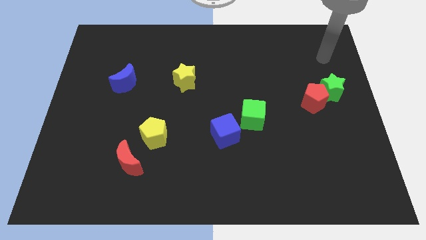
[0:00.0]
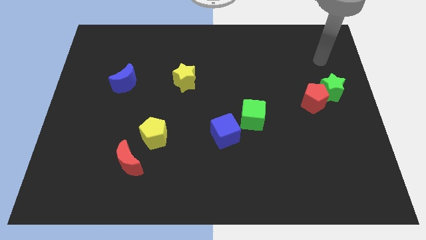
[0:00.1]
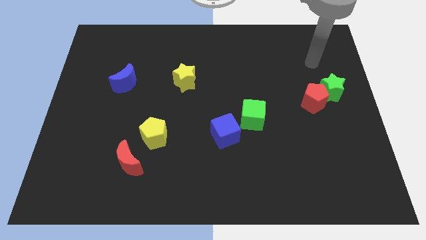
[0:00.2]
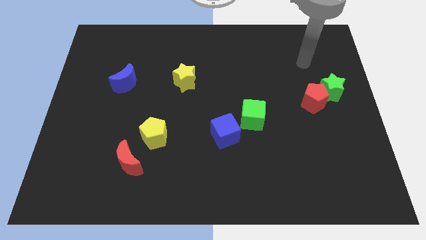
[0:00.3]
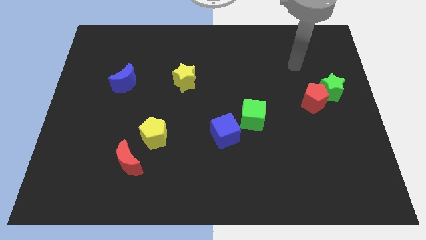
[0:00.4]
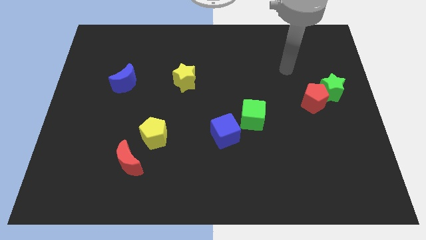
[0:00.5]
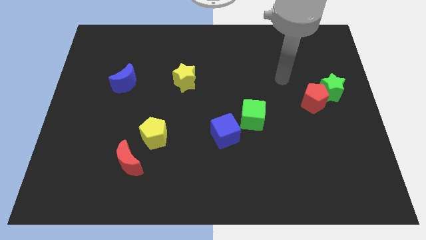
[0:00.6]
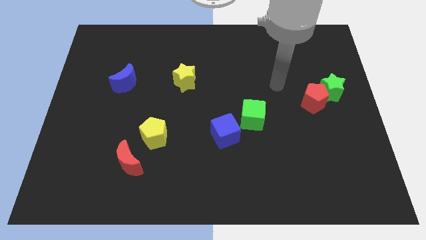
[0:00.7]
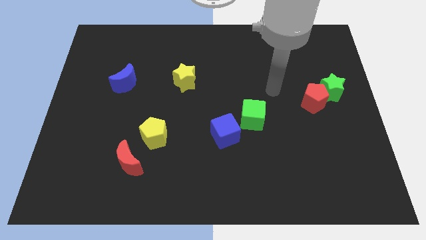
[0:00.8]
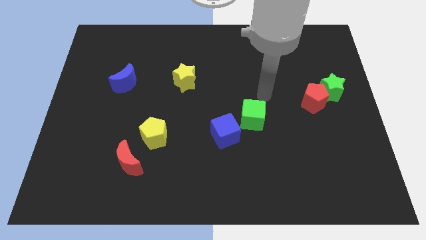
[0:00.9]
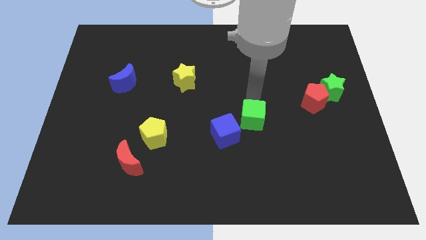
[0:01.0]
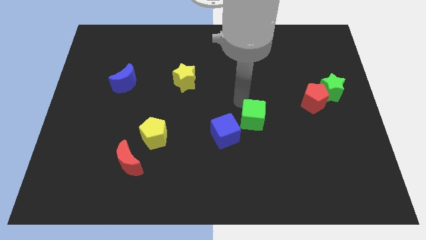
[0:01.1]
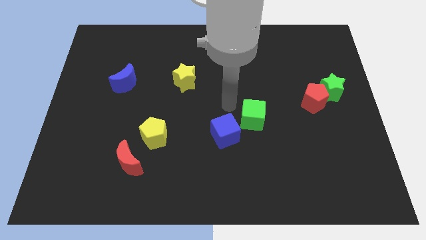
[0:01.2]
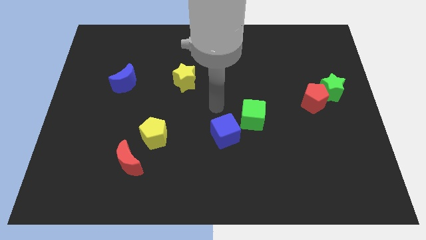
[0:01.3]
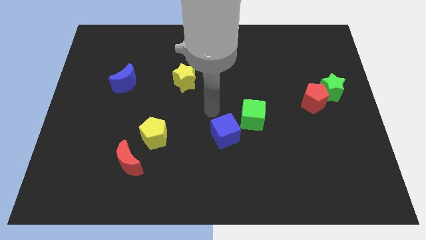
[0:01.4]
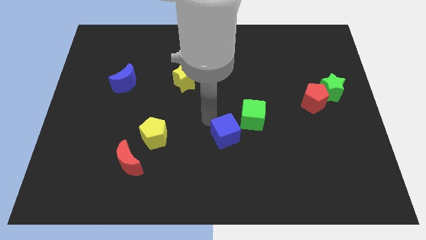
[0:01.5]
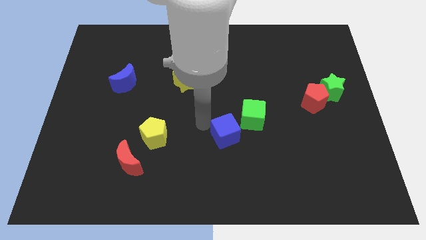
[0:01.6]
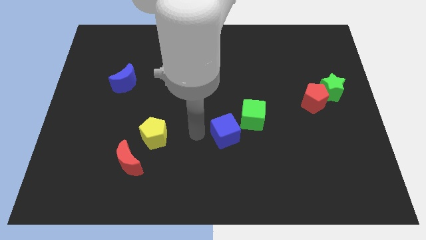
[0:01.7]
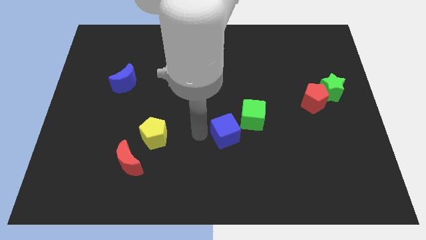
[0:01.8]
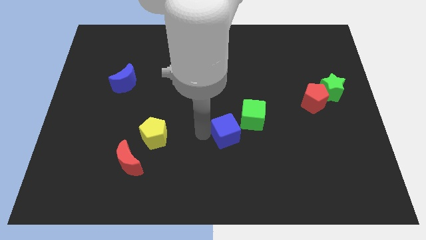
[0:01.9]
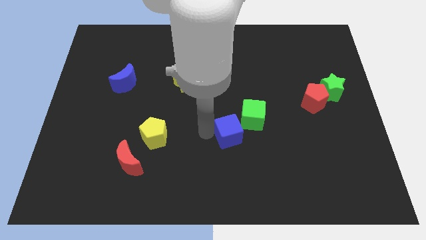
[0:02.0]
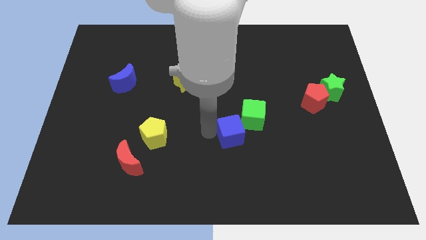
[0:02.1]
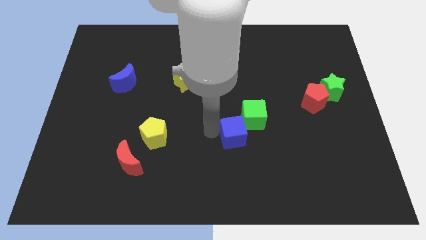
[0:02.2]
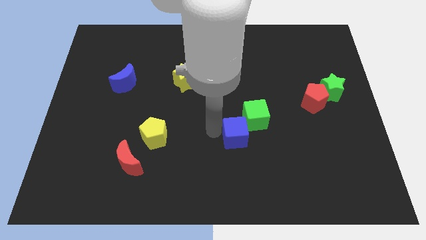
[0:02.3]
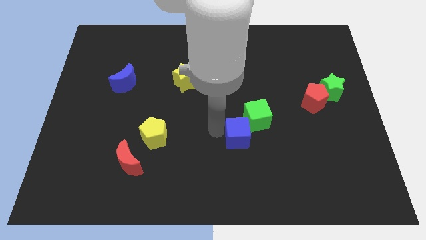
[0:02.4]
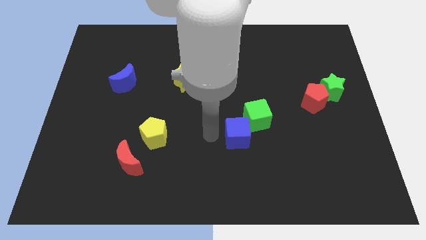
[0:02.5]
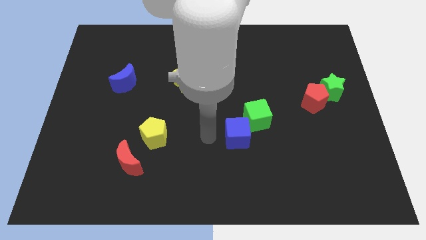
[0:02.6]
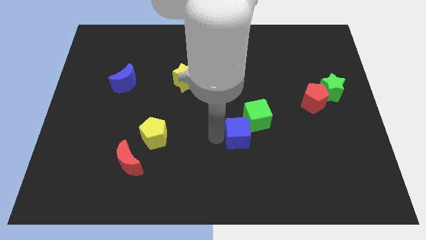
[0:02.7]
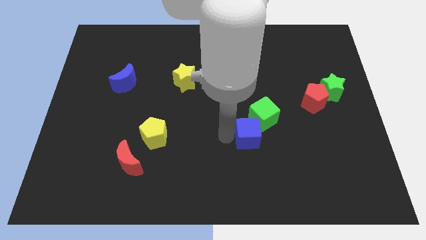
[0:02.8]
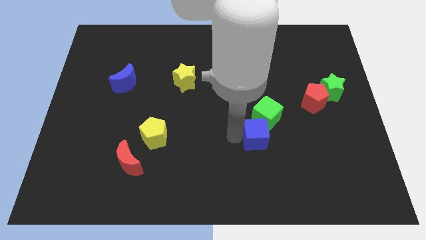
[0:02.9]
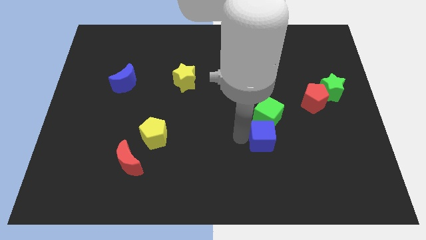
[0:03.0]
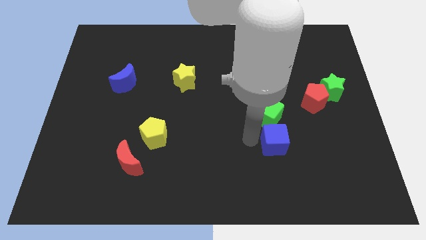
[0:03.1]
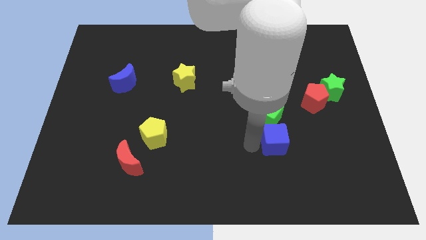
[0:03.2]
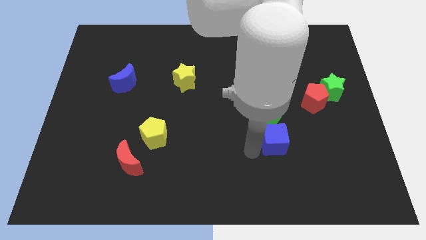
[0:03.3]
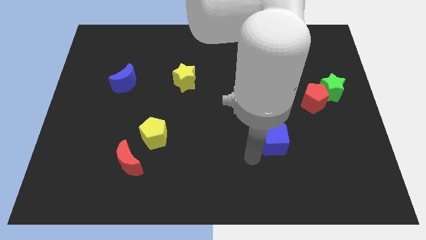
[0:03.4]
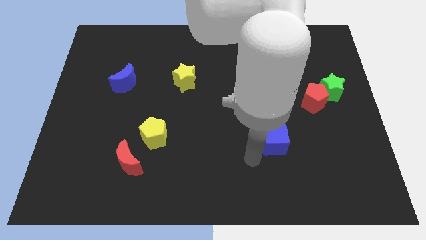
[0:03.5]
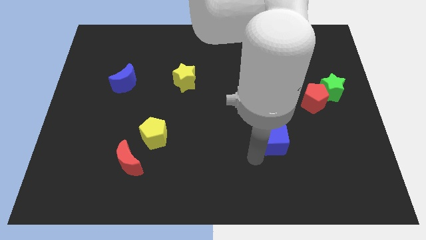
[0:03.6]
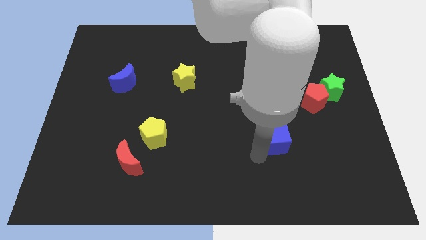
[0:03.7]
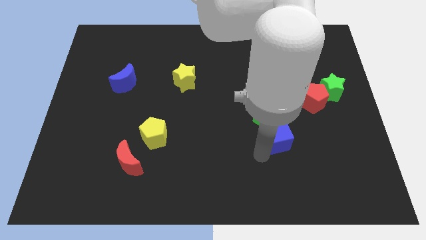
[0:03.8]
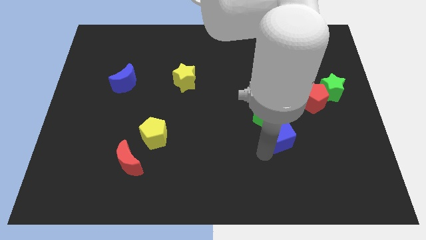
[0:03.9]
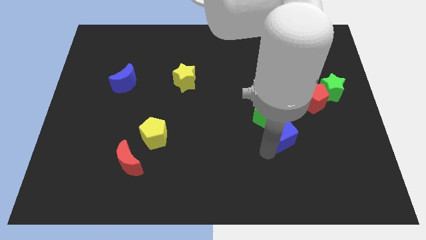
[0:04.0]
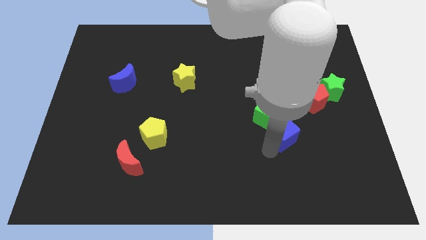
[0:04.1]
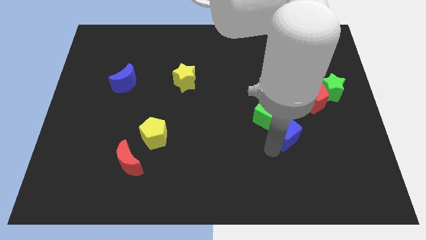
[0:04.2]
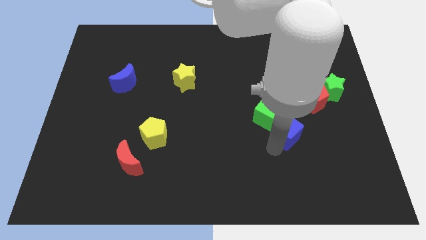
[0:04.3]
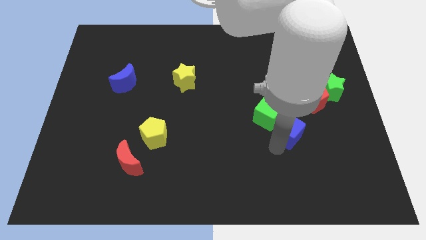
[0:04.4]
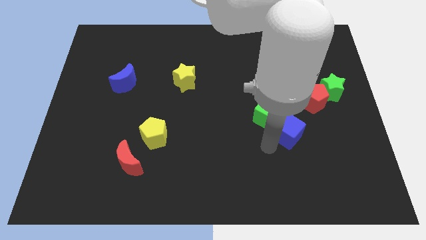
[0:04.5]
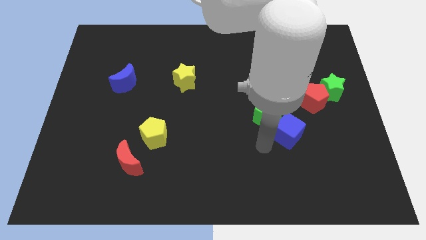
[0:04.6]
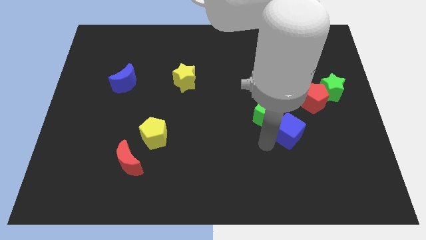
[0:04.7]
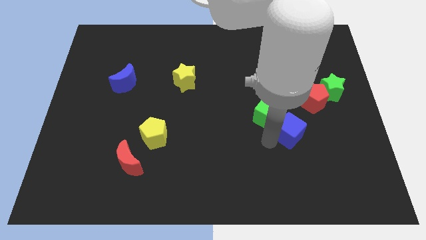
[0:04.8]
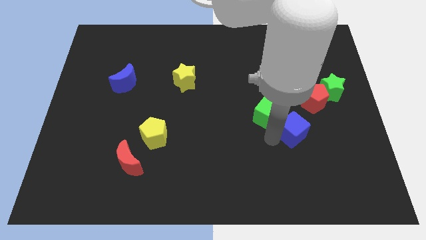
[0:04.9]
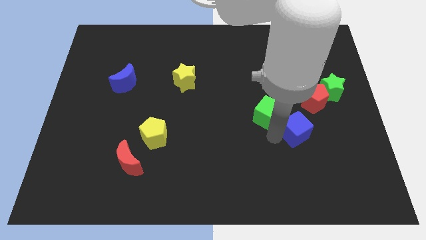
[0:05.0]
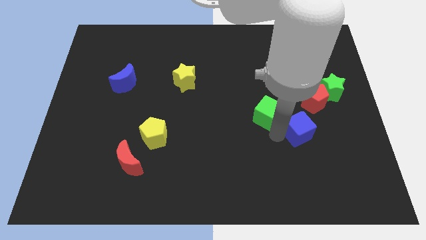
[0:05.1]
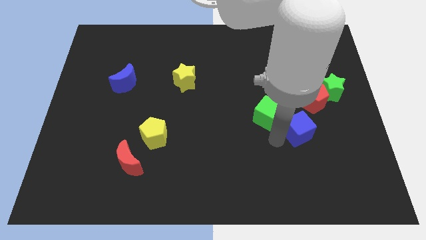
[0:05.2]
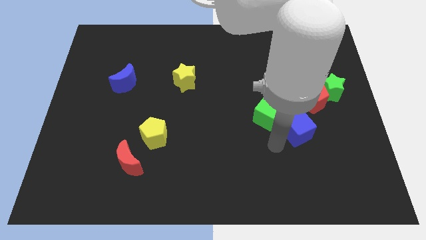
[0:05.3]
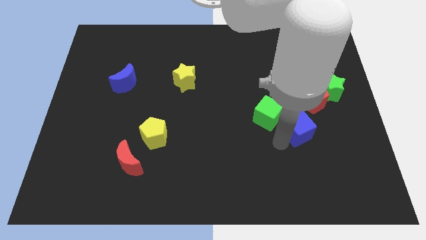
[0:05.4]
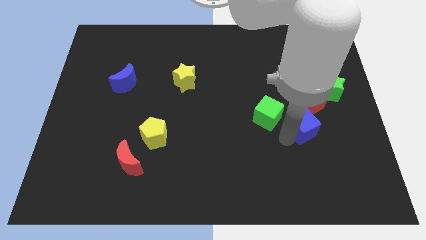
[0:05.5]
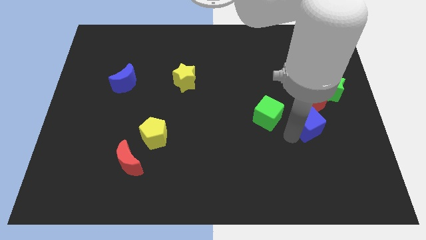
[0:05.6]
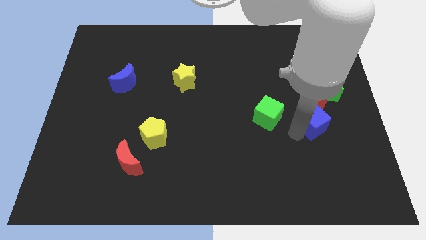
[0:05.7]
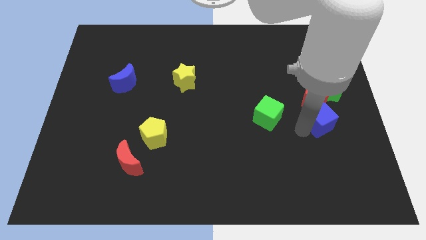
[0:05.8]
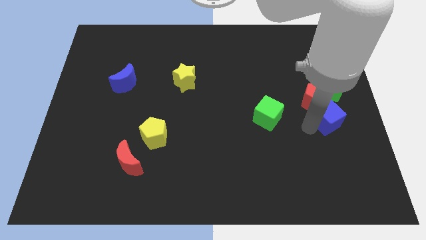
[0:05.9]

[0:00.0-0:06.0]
move the blue cube to the right side of the board
